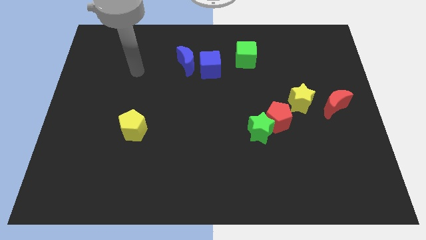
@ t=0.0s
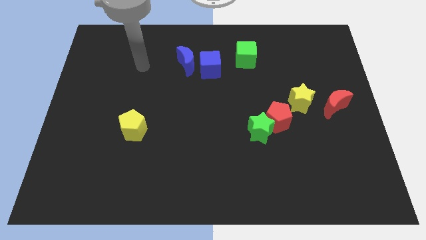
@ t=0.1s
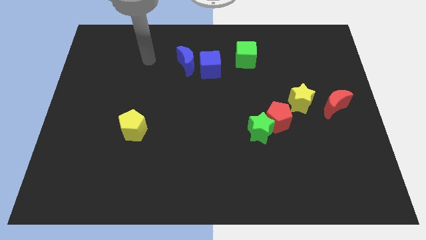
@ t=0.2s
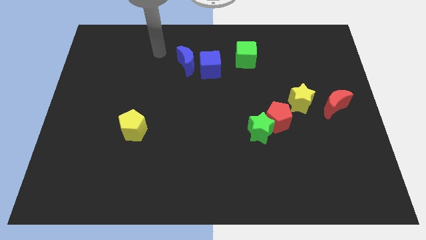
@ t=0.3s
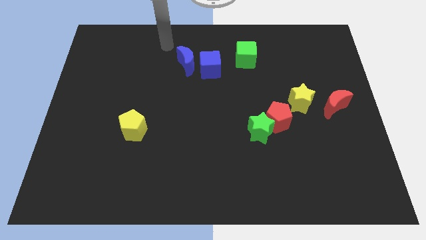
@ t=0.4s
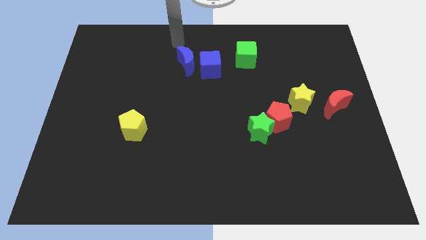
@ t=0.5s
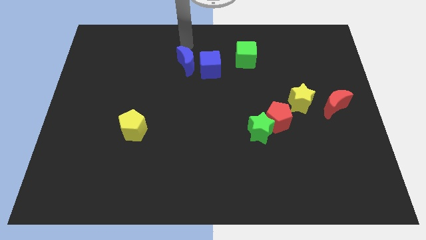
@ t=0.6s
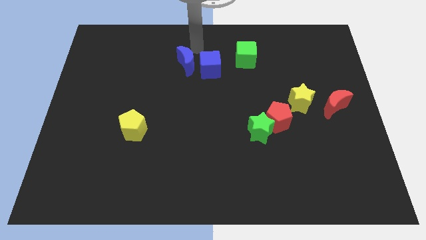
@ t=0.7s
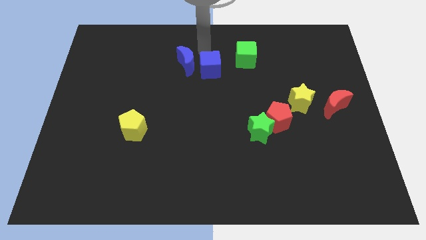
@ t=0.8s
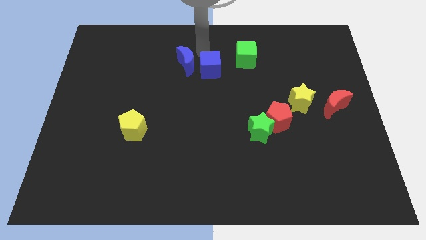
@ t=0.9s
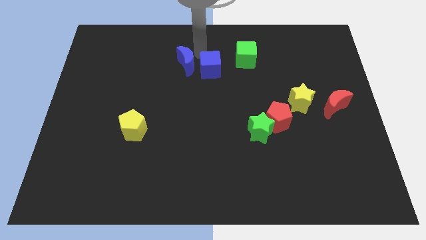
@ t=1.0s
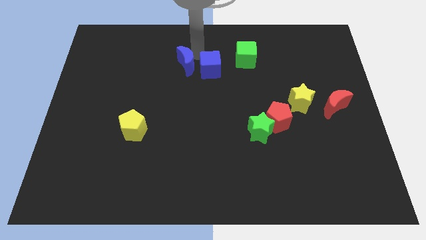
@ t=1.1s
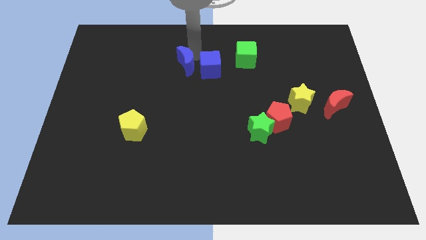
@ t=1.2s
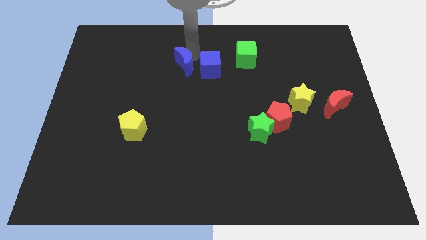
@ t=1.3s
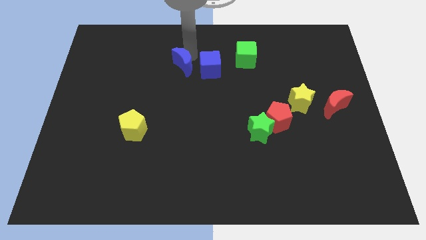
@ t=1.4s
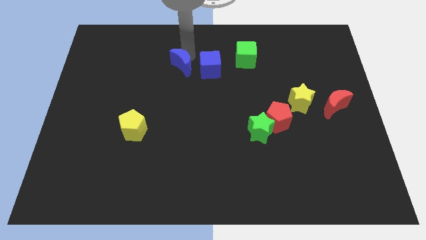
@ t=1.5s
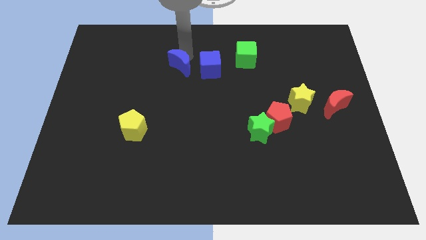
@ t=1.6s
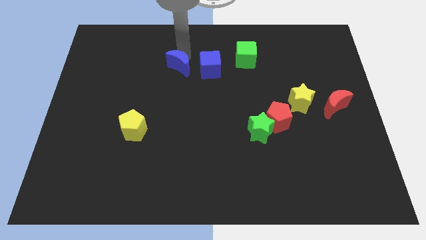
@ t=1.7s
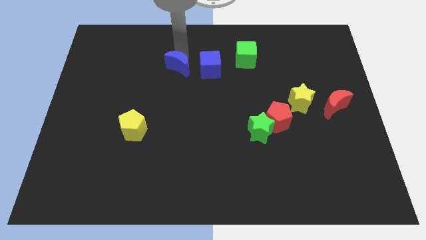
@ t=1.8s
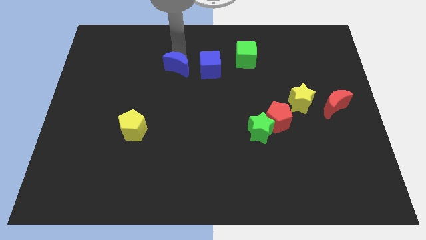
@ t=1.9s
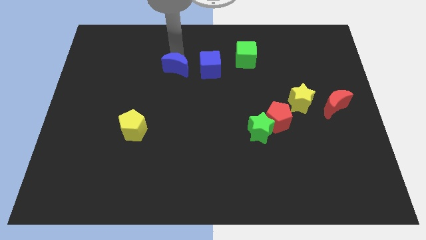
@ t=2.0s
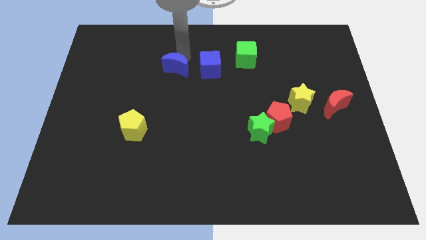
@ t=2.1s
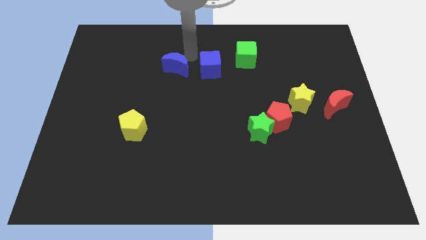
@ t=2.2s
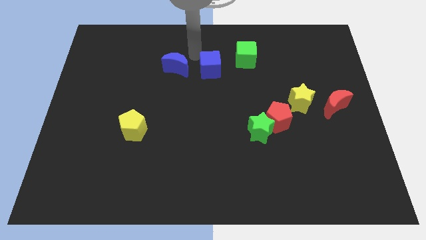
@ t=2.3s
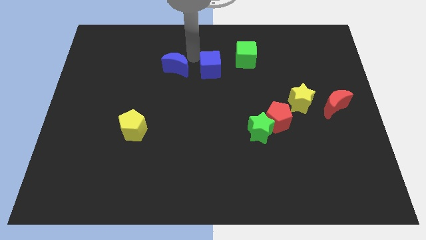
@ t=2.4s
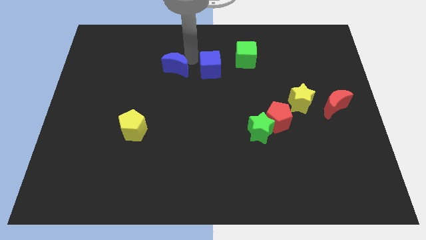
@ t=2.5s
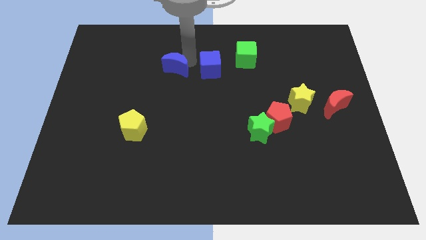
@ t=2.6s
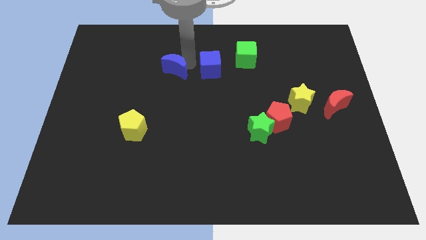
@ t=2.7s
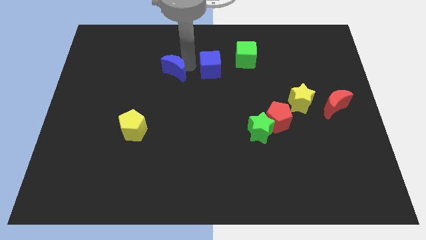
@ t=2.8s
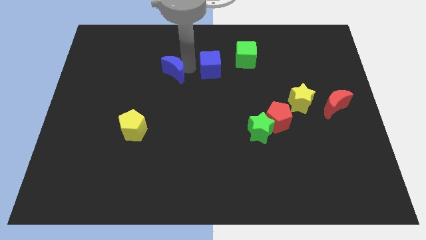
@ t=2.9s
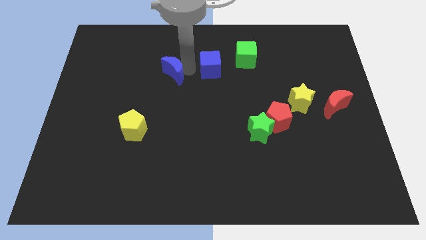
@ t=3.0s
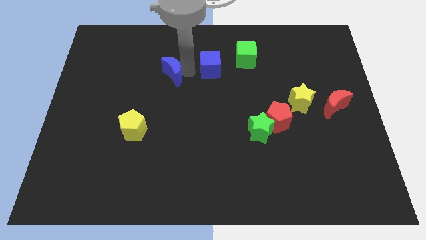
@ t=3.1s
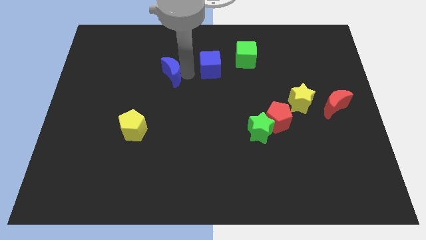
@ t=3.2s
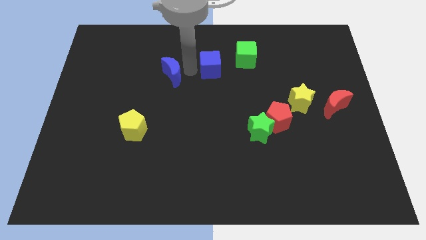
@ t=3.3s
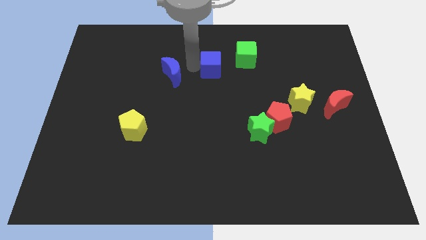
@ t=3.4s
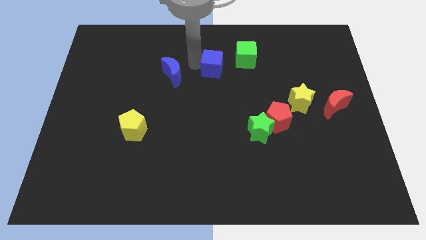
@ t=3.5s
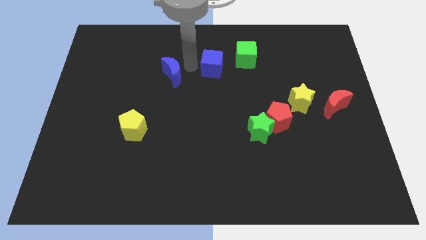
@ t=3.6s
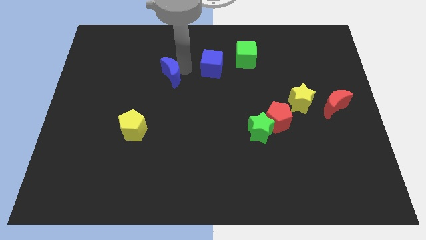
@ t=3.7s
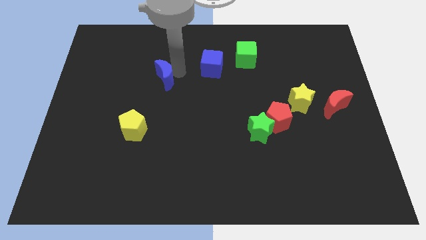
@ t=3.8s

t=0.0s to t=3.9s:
slightly move the blue moon down and to the left

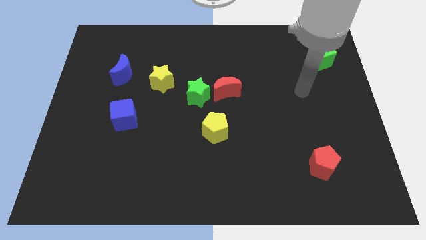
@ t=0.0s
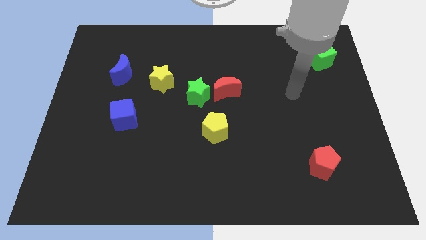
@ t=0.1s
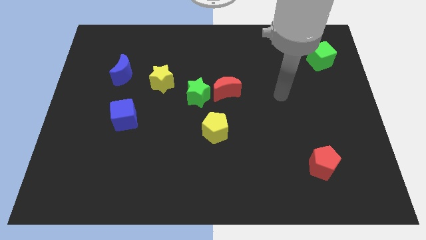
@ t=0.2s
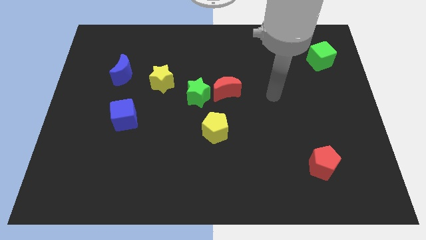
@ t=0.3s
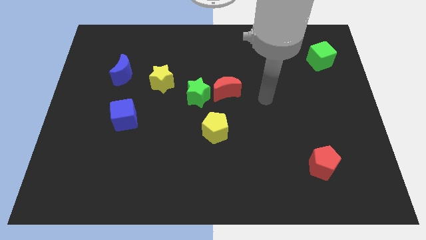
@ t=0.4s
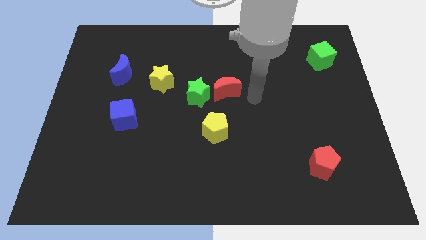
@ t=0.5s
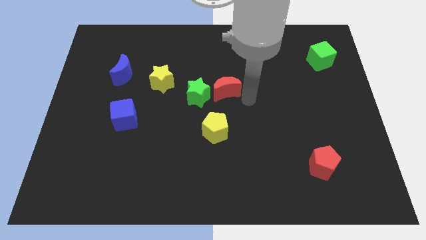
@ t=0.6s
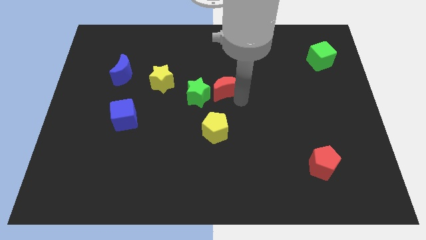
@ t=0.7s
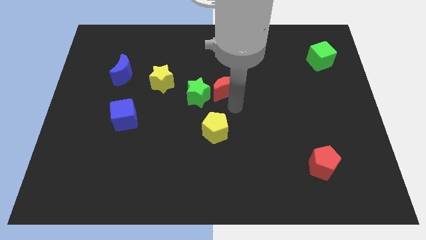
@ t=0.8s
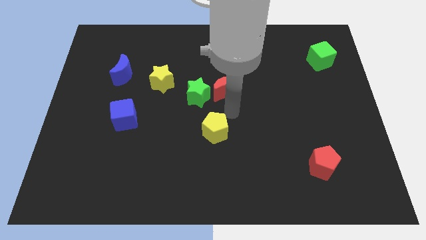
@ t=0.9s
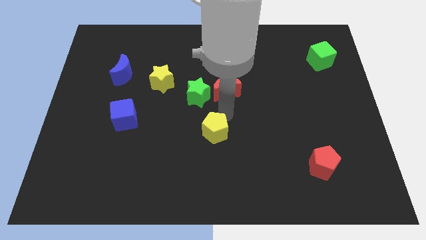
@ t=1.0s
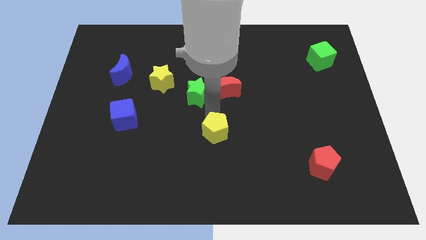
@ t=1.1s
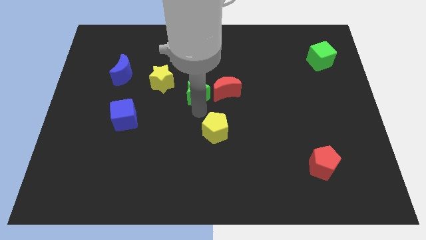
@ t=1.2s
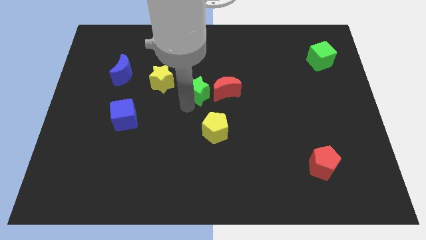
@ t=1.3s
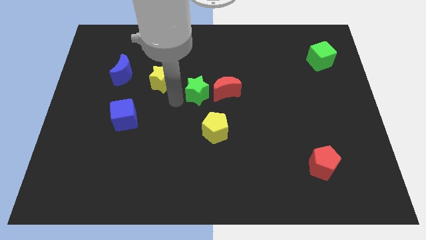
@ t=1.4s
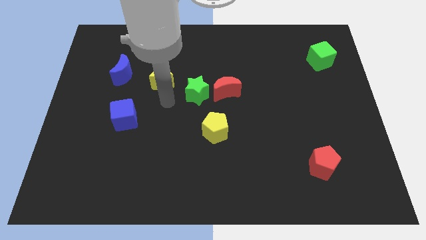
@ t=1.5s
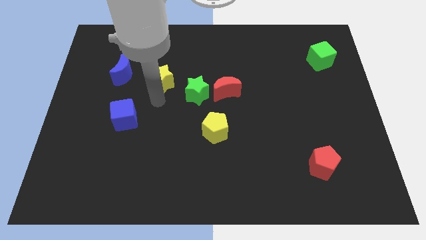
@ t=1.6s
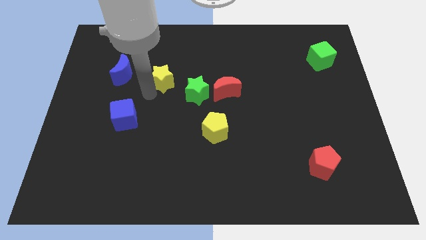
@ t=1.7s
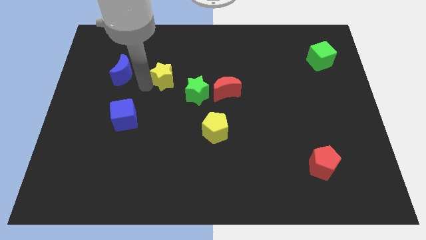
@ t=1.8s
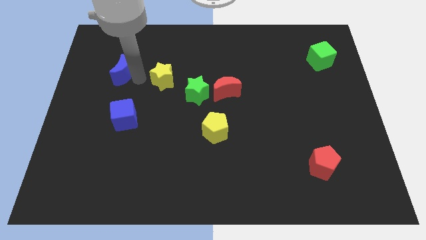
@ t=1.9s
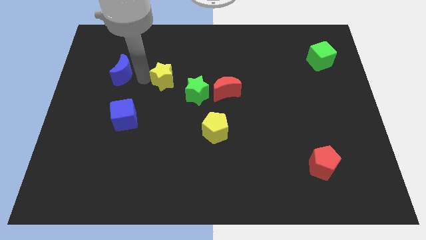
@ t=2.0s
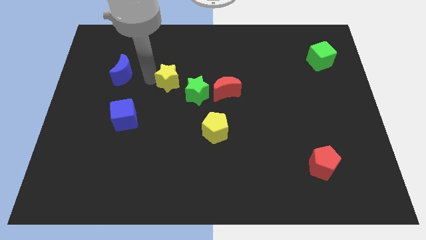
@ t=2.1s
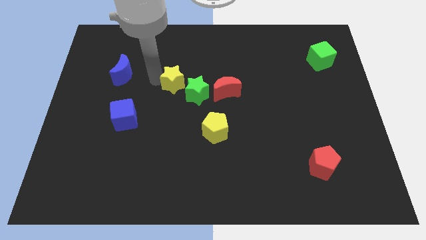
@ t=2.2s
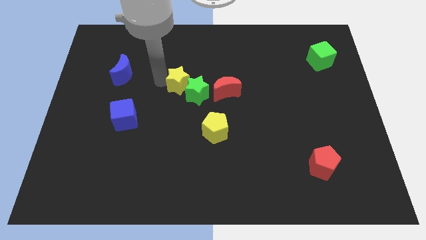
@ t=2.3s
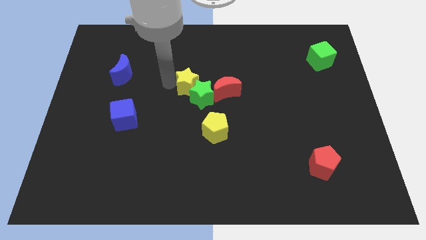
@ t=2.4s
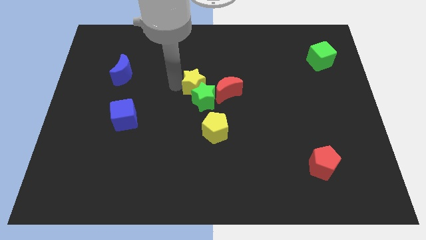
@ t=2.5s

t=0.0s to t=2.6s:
slightly push the yellow star to the right

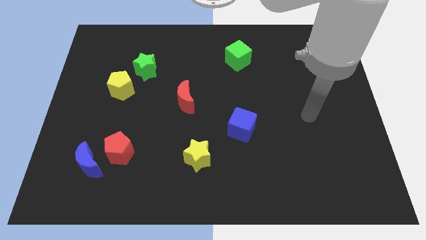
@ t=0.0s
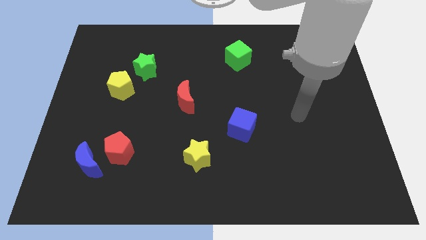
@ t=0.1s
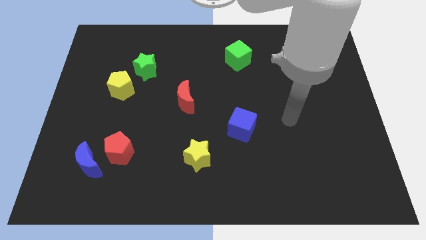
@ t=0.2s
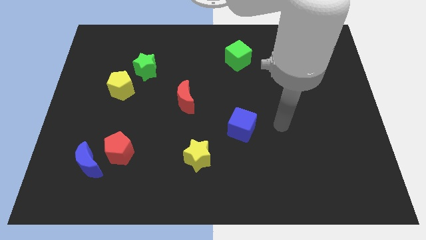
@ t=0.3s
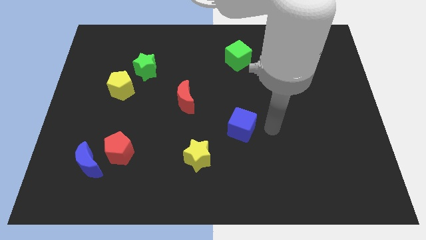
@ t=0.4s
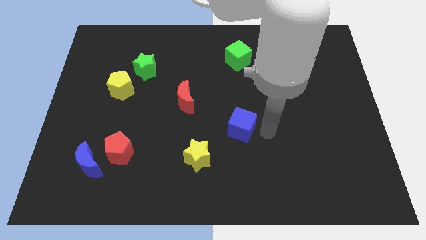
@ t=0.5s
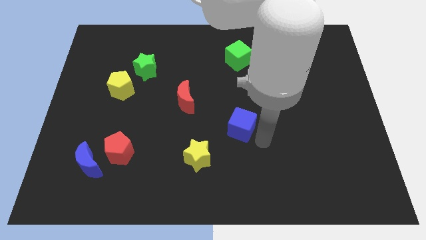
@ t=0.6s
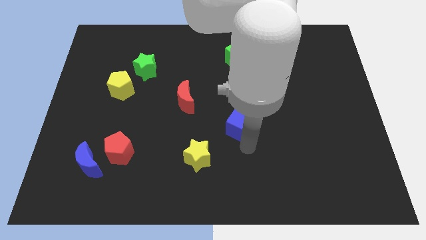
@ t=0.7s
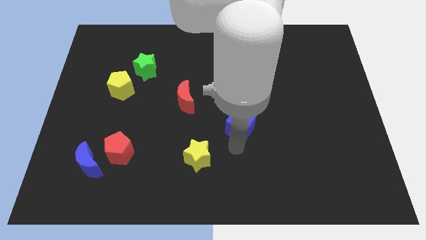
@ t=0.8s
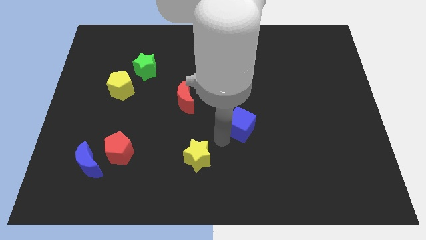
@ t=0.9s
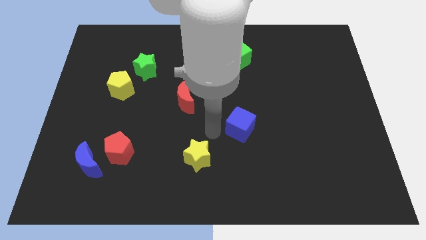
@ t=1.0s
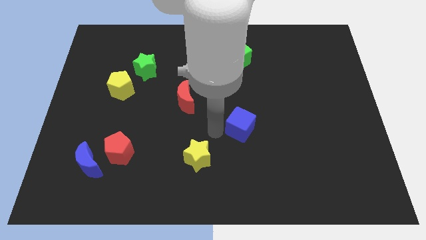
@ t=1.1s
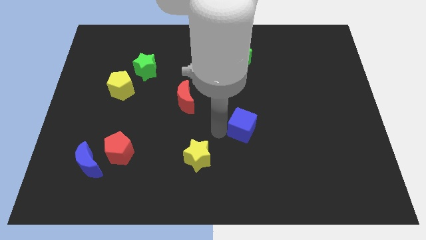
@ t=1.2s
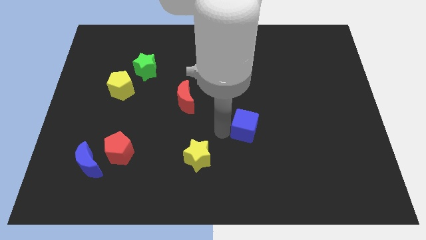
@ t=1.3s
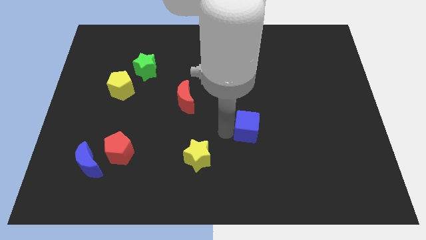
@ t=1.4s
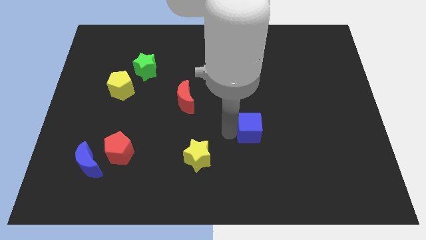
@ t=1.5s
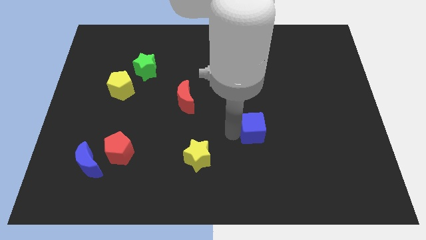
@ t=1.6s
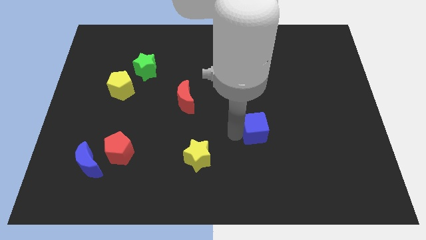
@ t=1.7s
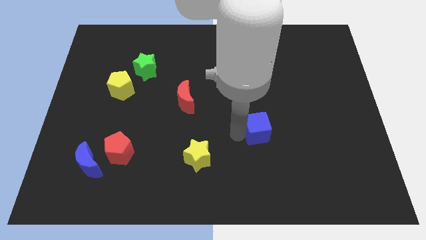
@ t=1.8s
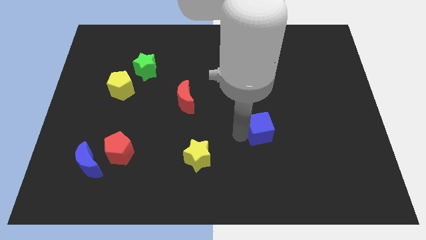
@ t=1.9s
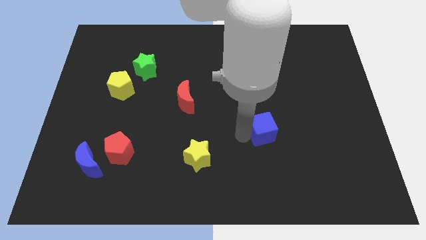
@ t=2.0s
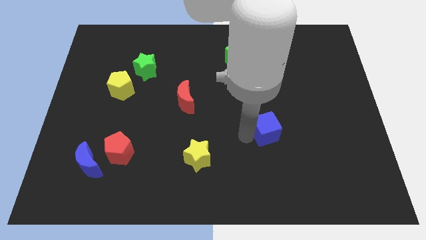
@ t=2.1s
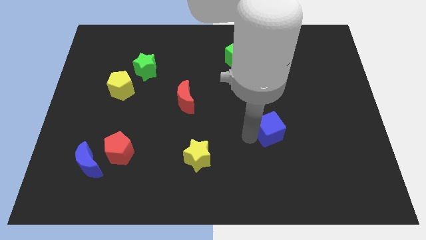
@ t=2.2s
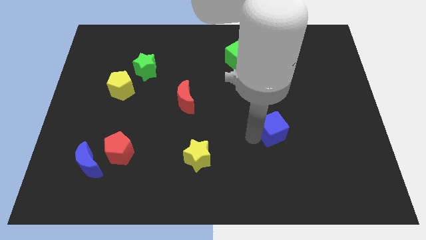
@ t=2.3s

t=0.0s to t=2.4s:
slightly slide the blue cube to the right
